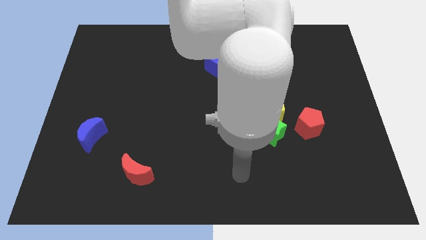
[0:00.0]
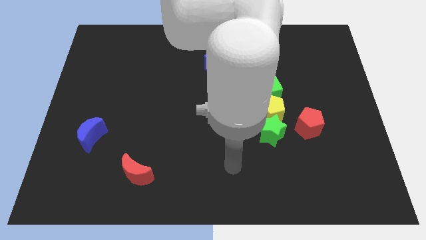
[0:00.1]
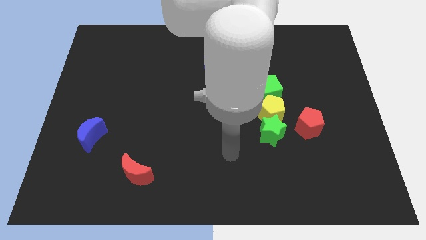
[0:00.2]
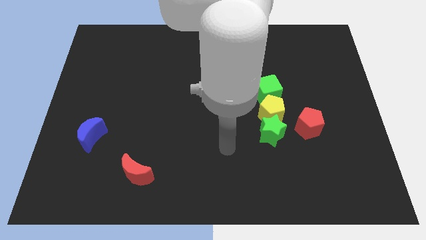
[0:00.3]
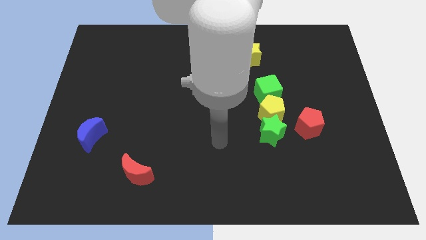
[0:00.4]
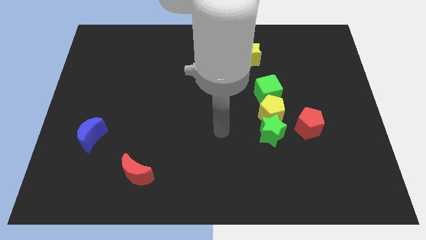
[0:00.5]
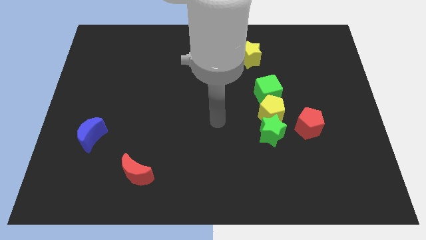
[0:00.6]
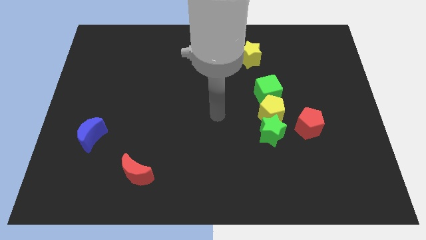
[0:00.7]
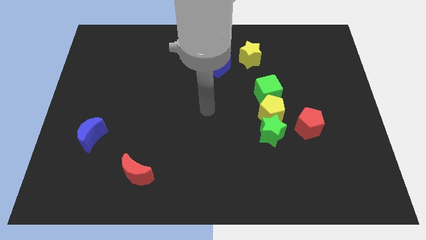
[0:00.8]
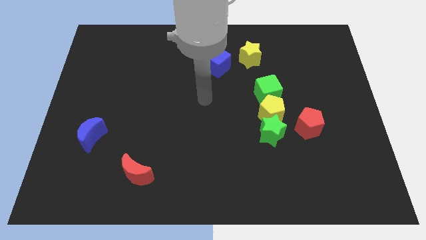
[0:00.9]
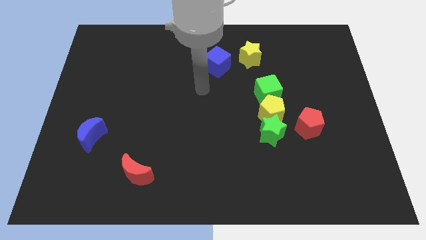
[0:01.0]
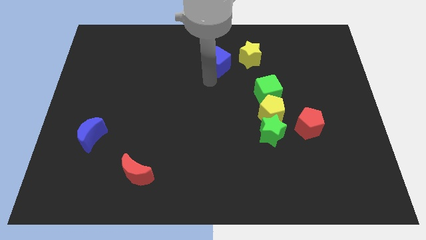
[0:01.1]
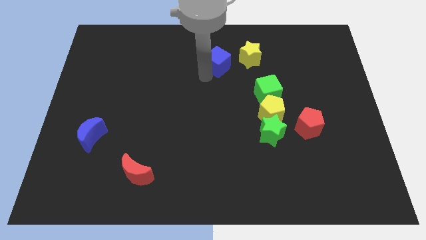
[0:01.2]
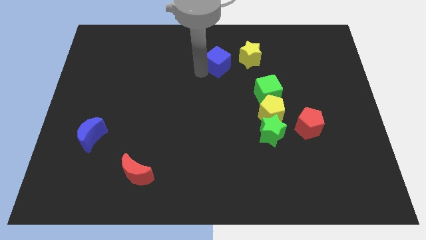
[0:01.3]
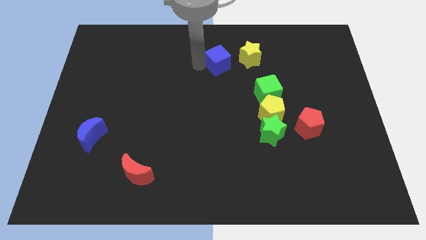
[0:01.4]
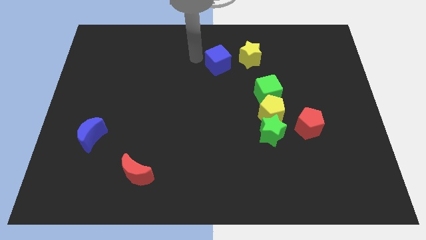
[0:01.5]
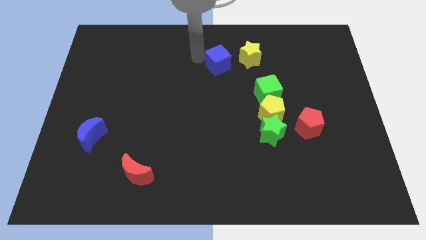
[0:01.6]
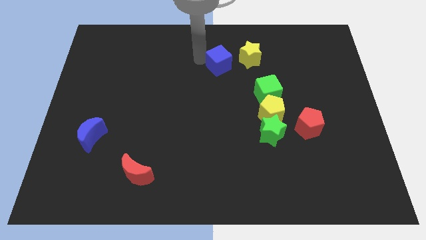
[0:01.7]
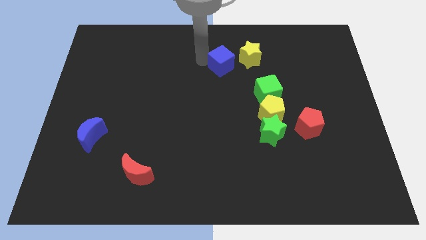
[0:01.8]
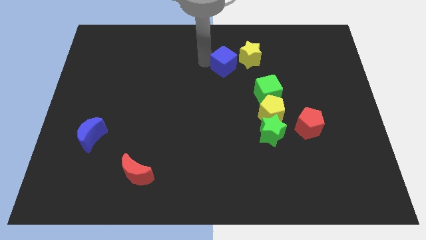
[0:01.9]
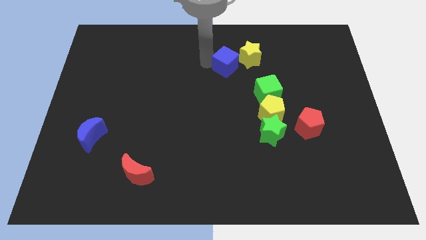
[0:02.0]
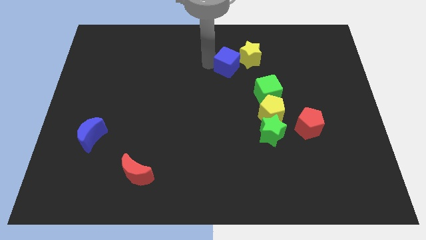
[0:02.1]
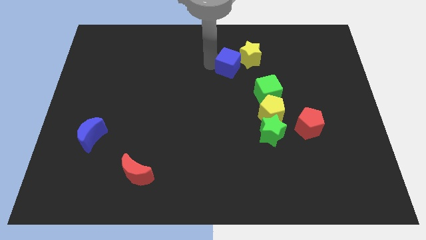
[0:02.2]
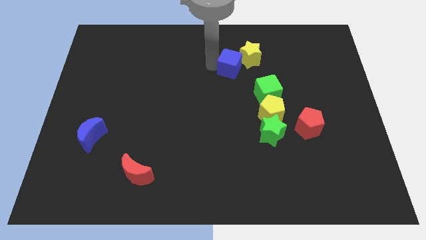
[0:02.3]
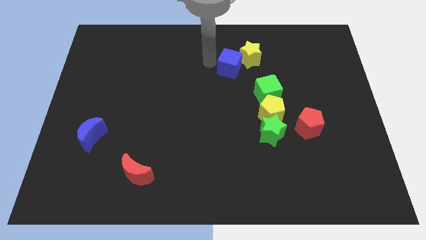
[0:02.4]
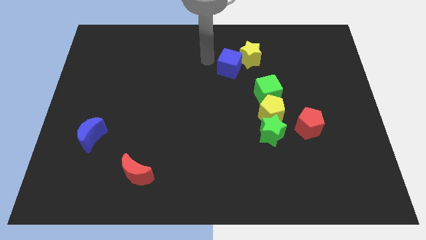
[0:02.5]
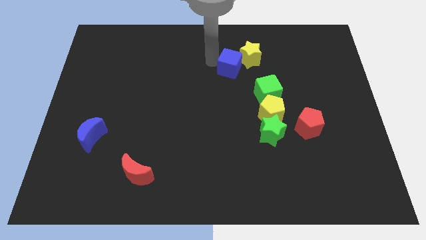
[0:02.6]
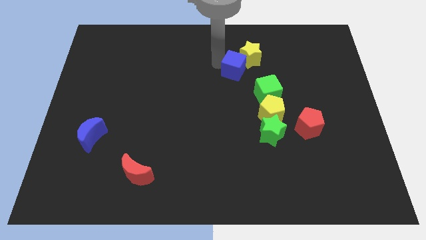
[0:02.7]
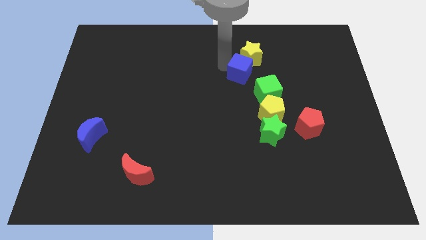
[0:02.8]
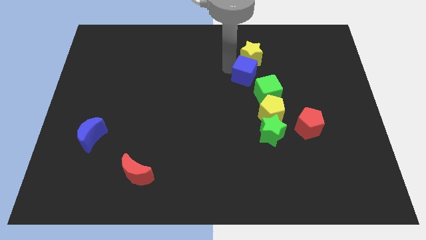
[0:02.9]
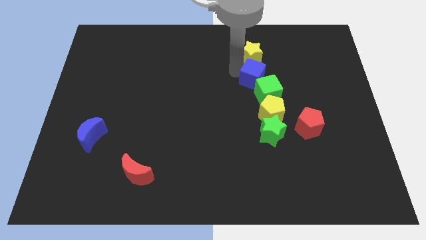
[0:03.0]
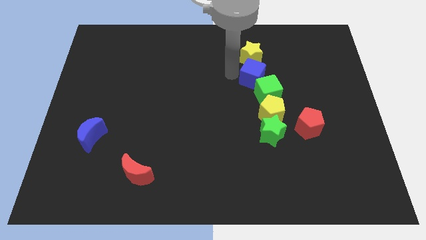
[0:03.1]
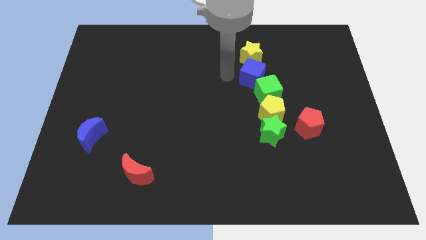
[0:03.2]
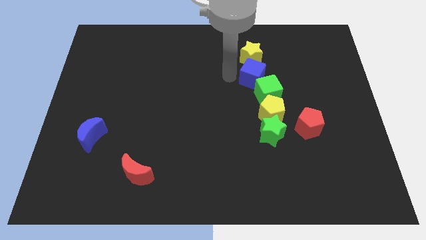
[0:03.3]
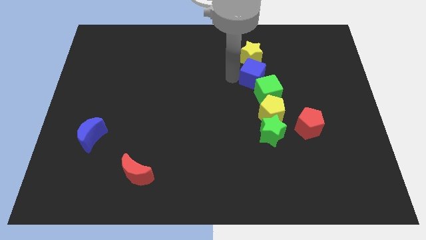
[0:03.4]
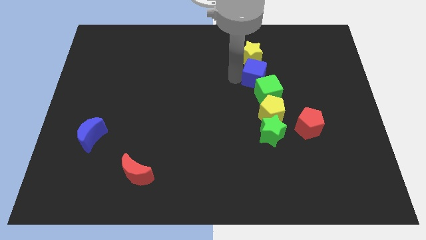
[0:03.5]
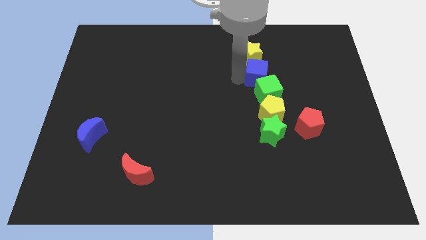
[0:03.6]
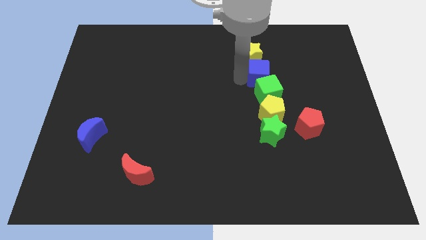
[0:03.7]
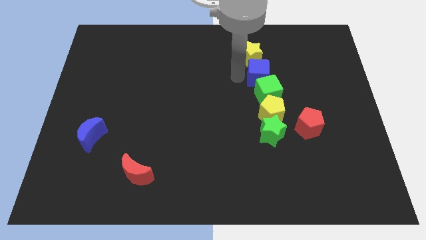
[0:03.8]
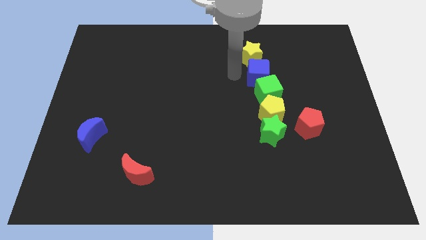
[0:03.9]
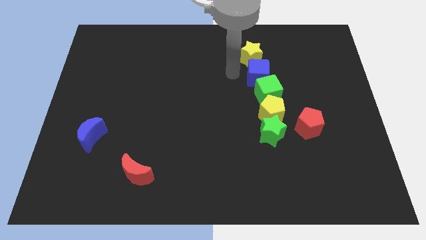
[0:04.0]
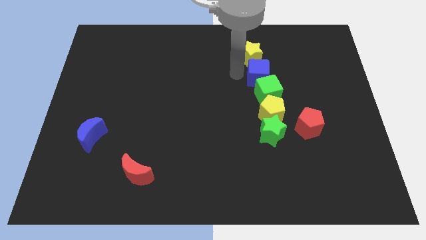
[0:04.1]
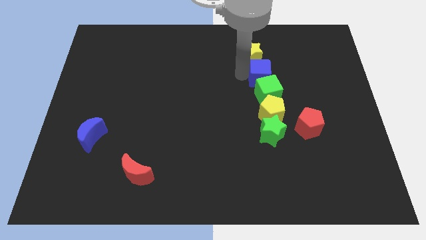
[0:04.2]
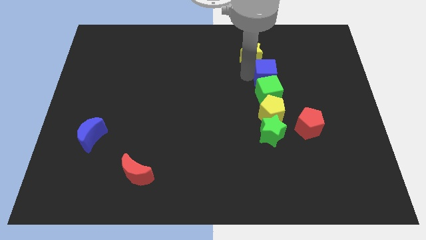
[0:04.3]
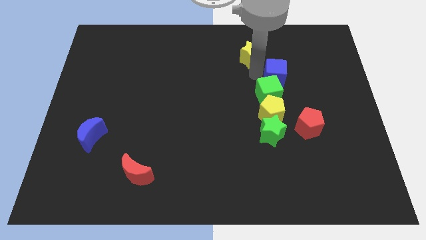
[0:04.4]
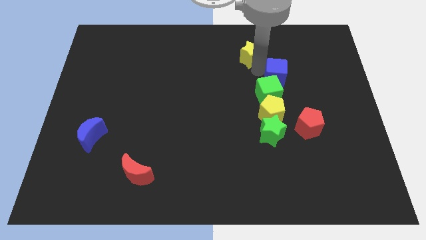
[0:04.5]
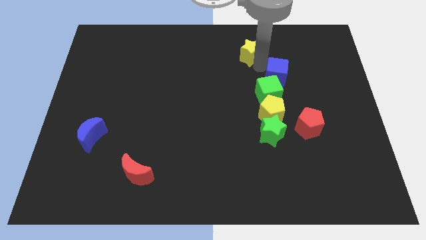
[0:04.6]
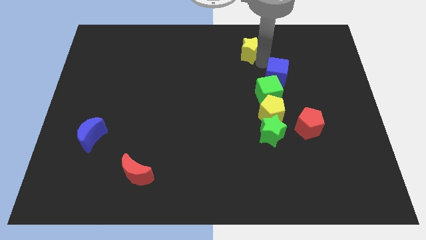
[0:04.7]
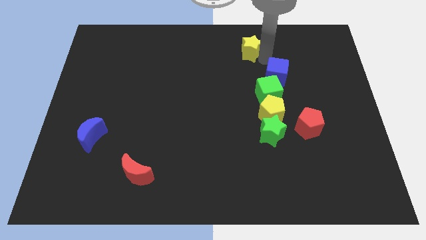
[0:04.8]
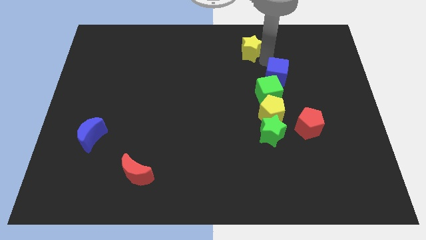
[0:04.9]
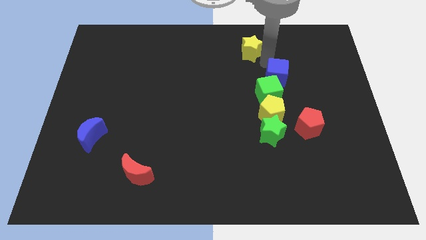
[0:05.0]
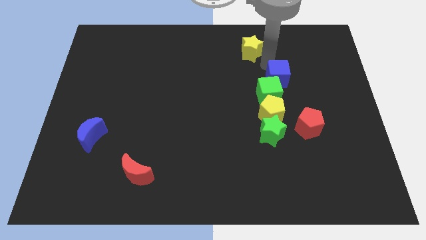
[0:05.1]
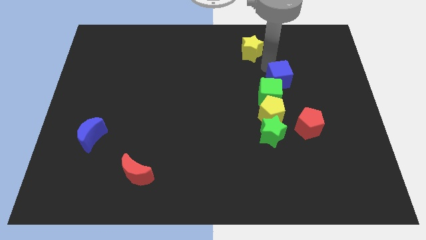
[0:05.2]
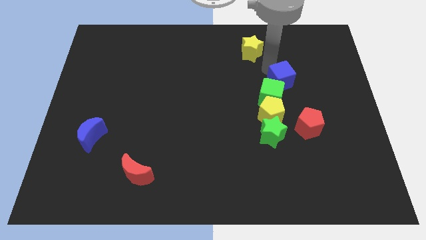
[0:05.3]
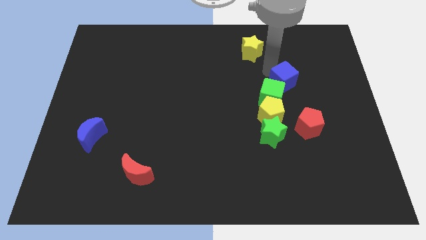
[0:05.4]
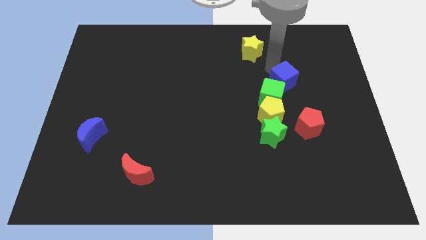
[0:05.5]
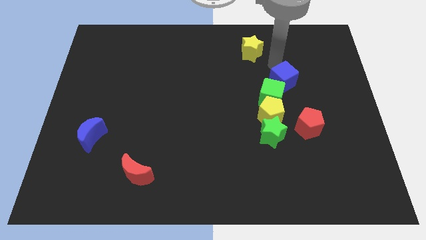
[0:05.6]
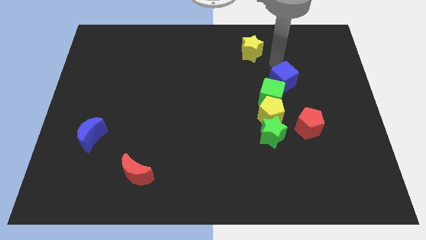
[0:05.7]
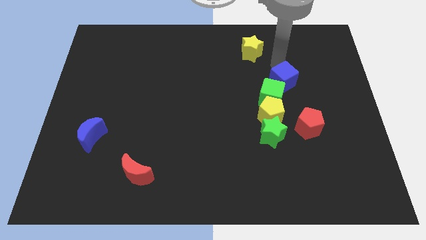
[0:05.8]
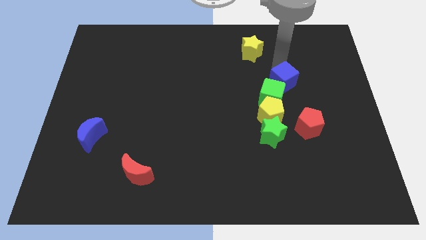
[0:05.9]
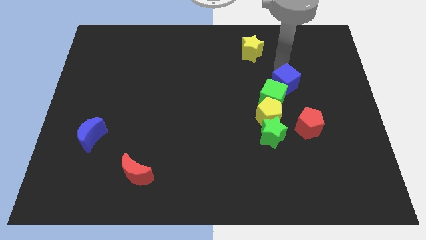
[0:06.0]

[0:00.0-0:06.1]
push the blue cube diagonally up and to the right of the yellow pentagon

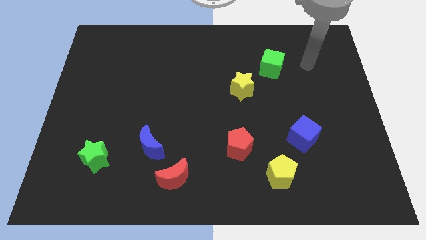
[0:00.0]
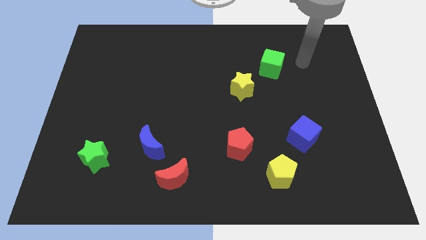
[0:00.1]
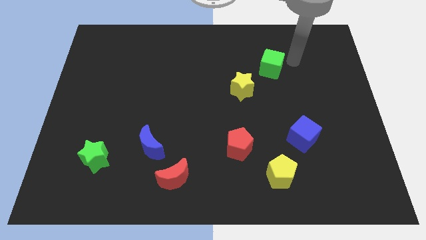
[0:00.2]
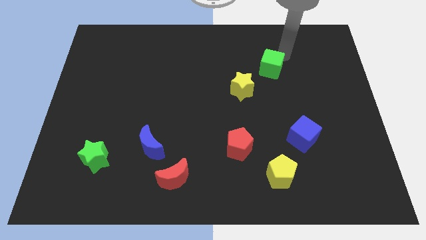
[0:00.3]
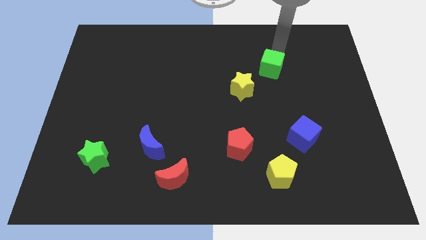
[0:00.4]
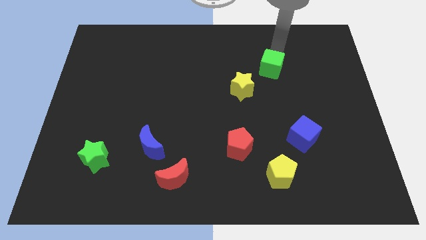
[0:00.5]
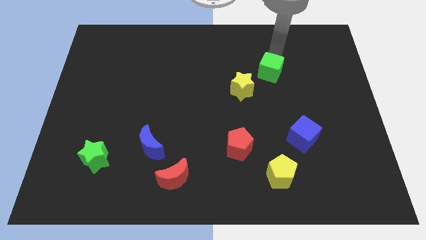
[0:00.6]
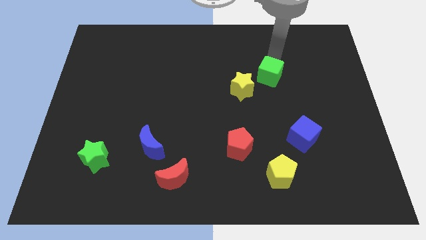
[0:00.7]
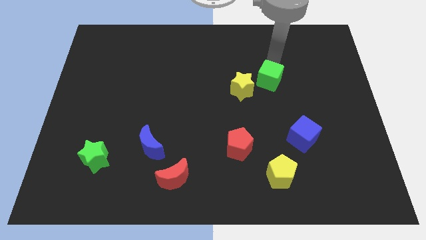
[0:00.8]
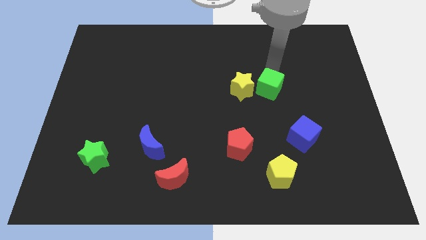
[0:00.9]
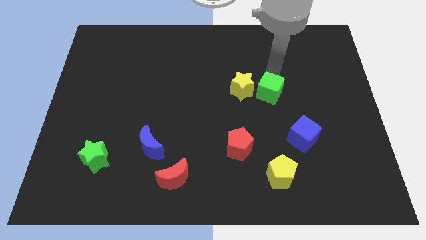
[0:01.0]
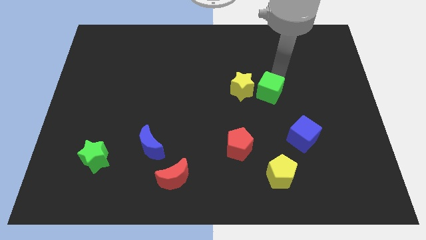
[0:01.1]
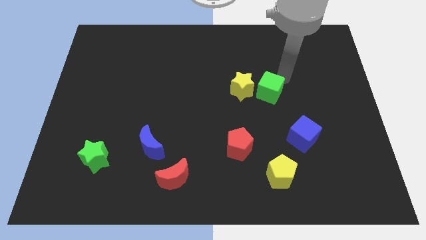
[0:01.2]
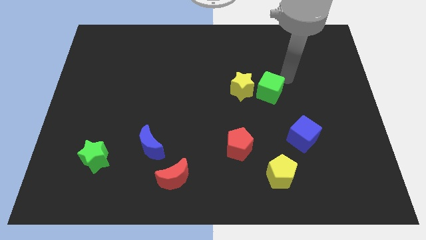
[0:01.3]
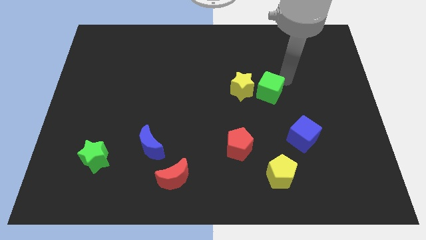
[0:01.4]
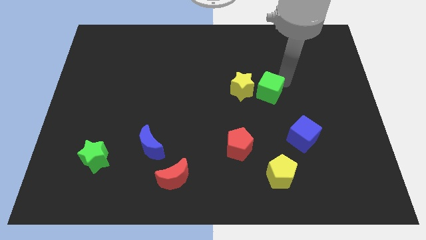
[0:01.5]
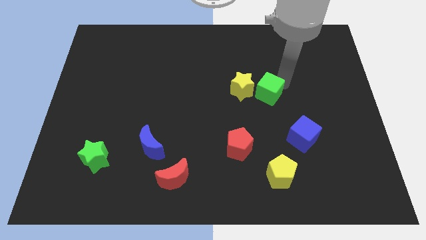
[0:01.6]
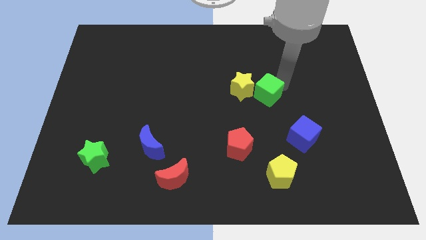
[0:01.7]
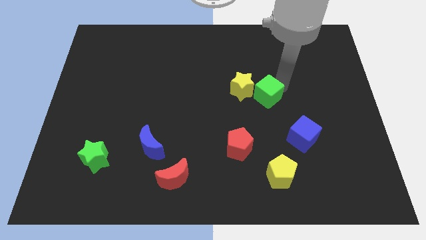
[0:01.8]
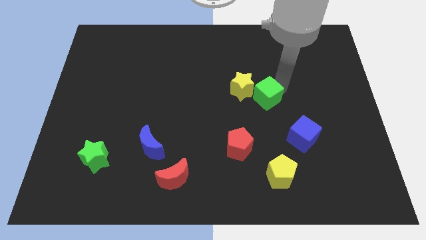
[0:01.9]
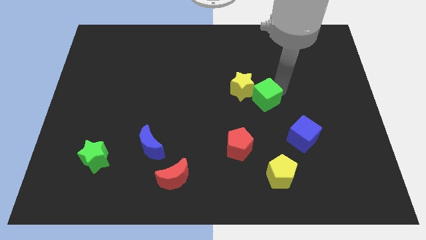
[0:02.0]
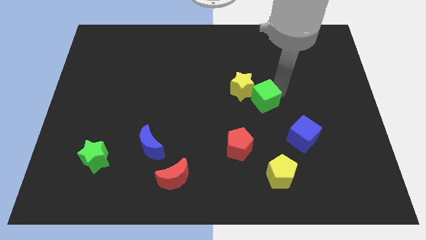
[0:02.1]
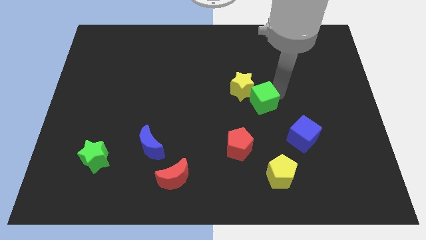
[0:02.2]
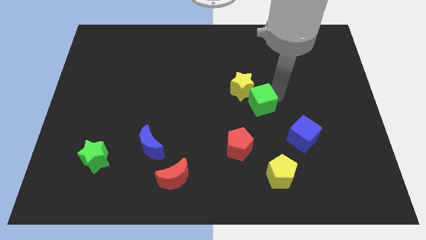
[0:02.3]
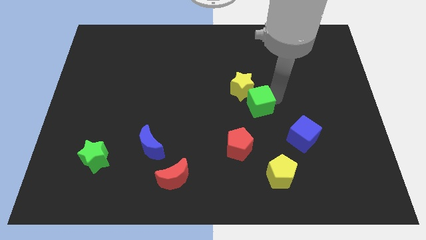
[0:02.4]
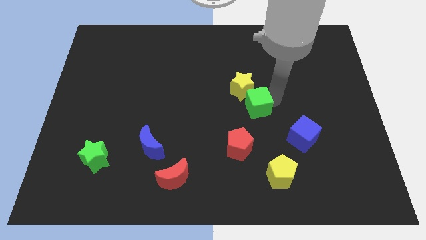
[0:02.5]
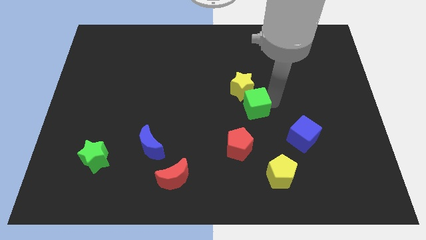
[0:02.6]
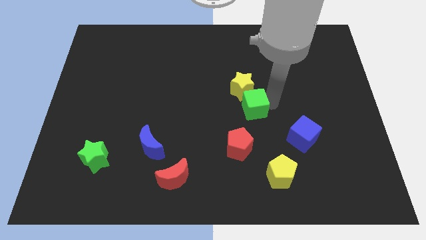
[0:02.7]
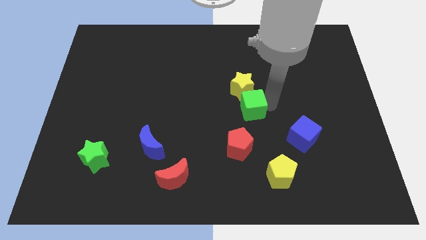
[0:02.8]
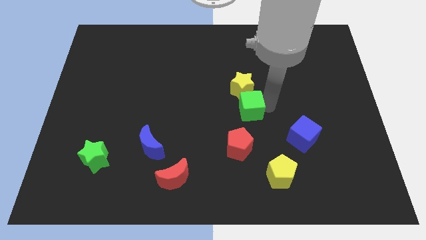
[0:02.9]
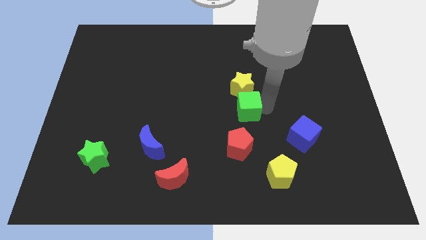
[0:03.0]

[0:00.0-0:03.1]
push the green cube to the bottom left side of the yellow star
